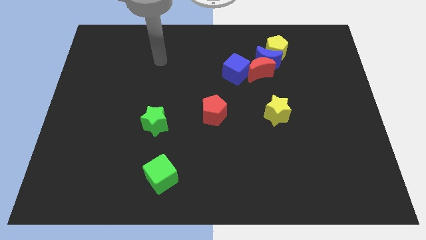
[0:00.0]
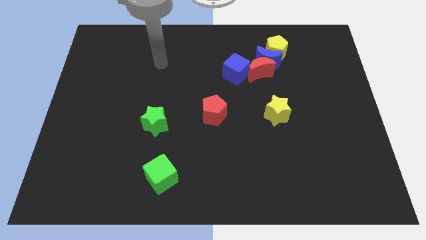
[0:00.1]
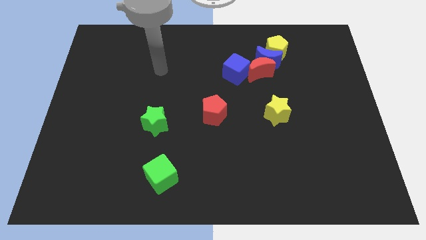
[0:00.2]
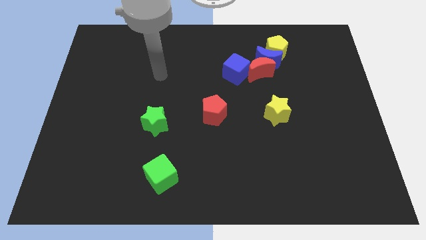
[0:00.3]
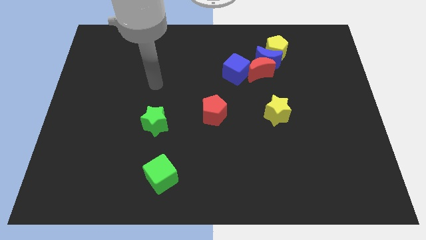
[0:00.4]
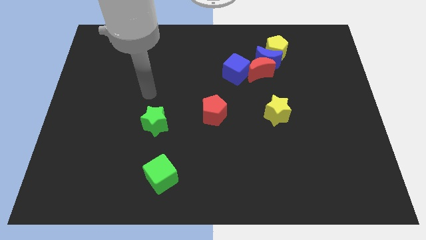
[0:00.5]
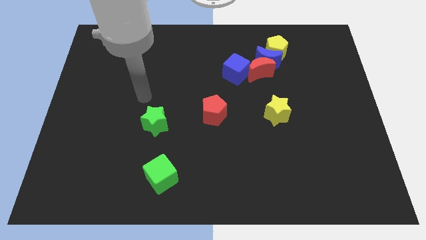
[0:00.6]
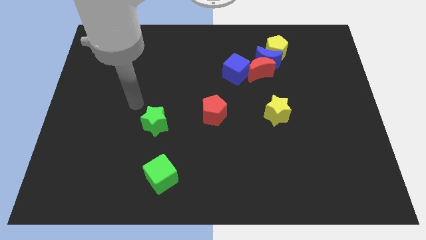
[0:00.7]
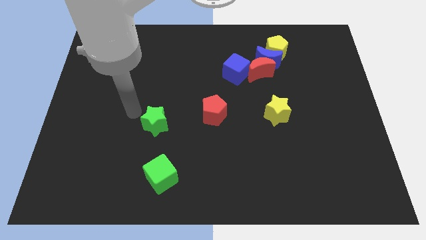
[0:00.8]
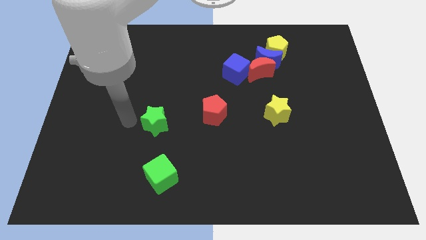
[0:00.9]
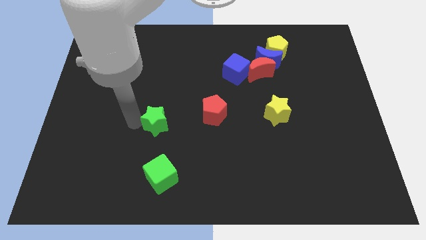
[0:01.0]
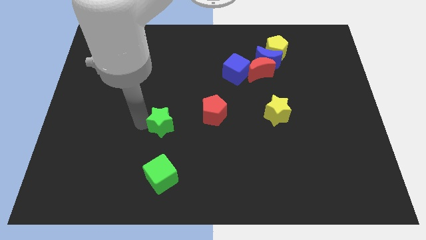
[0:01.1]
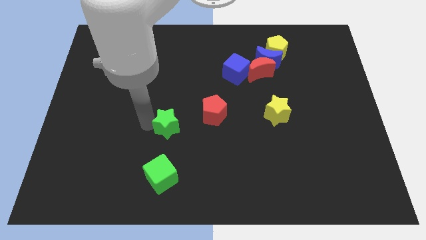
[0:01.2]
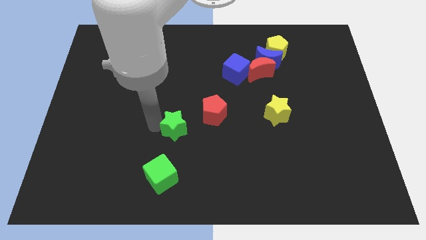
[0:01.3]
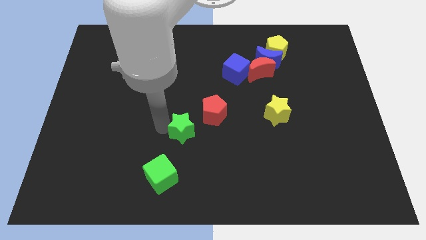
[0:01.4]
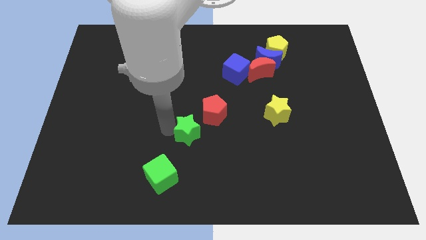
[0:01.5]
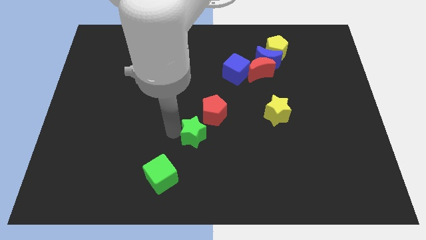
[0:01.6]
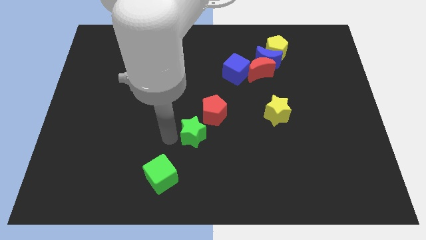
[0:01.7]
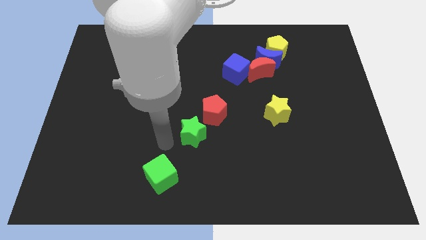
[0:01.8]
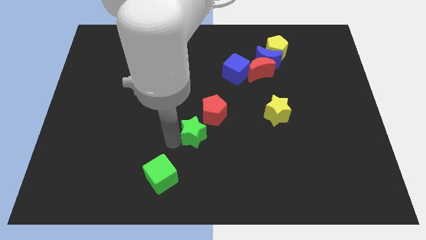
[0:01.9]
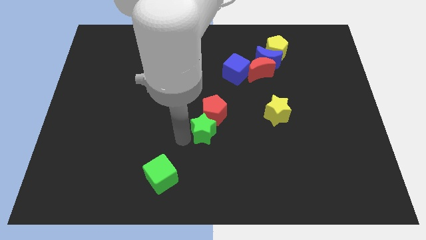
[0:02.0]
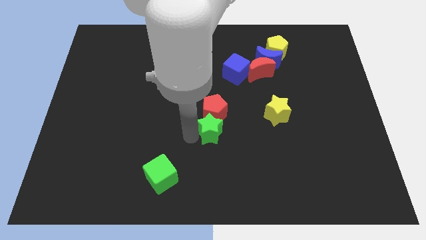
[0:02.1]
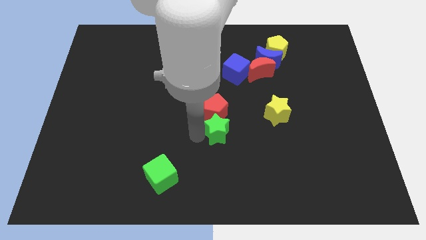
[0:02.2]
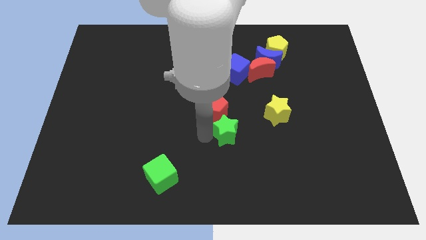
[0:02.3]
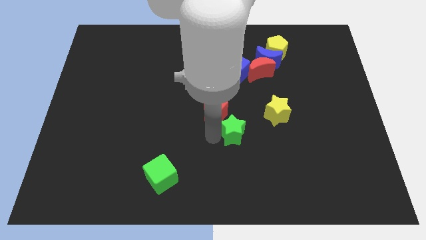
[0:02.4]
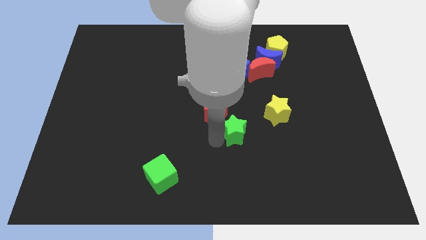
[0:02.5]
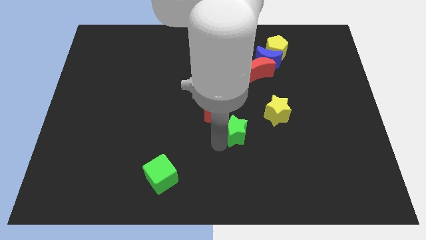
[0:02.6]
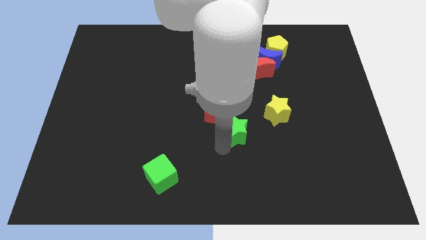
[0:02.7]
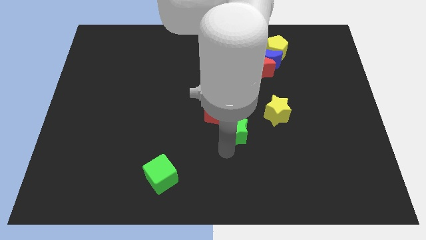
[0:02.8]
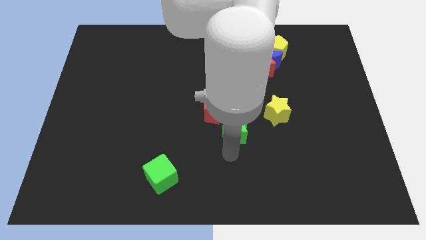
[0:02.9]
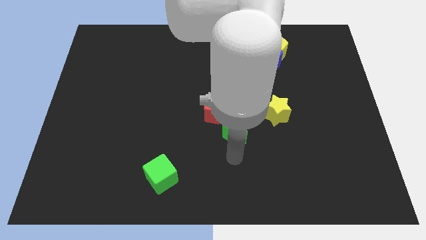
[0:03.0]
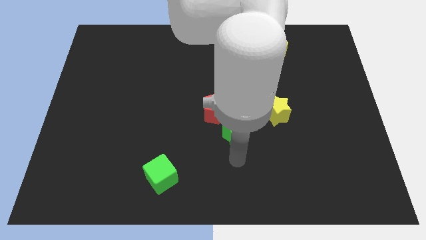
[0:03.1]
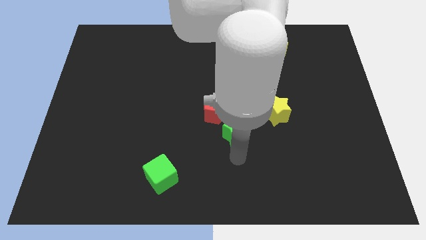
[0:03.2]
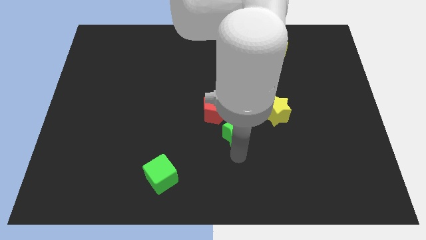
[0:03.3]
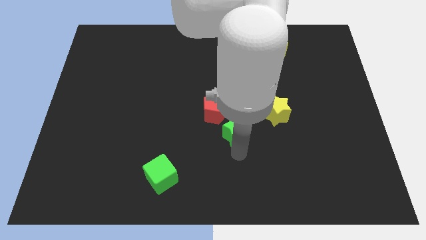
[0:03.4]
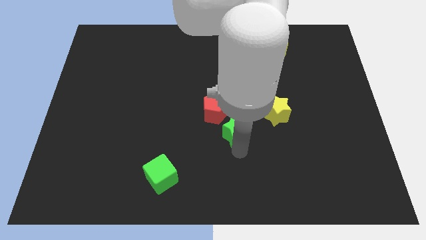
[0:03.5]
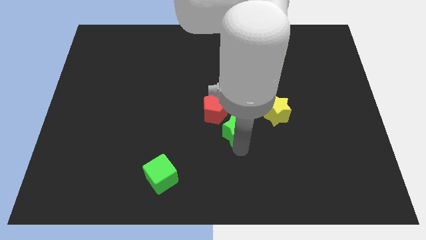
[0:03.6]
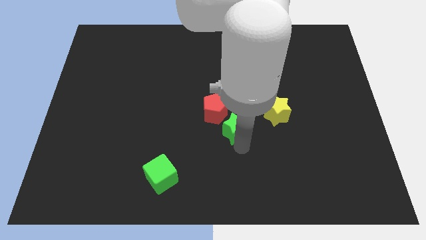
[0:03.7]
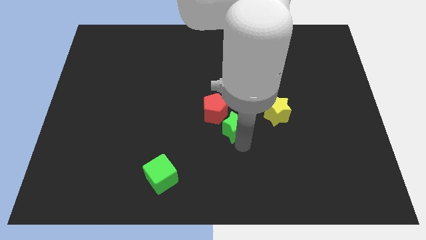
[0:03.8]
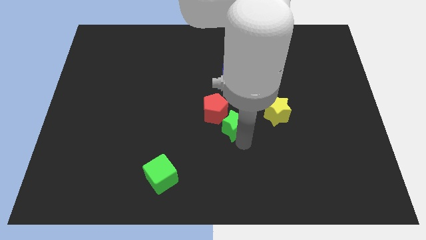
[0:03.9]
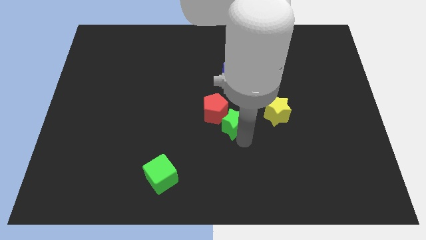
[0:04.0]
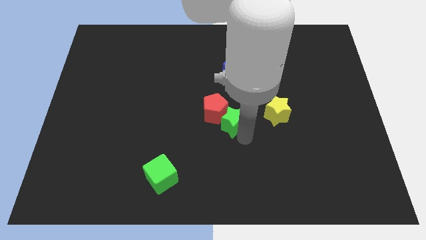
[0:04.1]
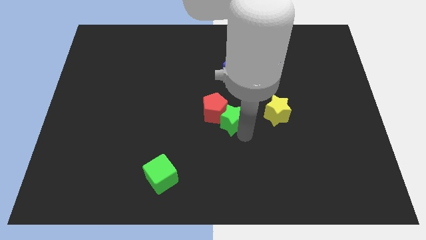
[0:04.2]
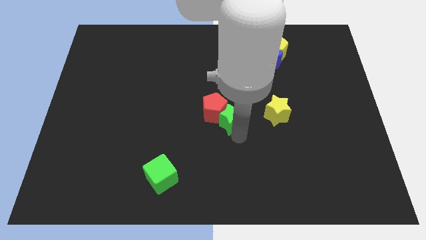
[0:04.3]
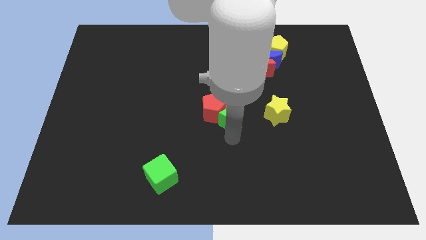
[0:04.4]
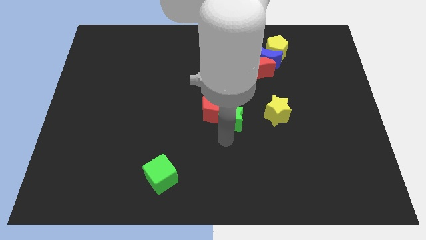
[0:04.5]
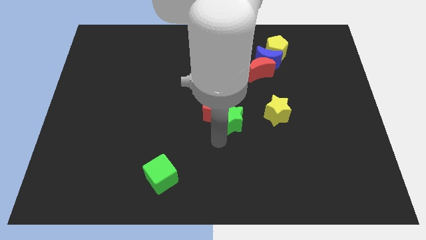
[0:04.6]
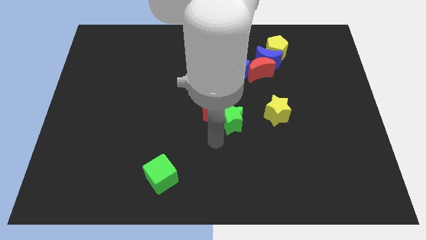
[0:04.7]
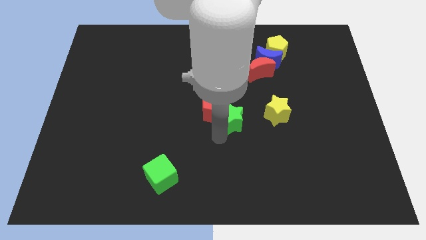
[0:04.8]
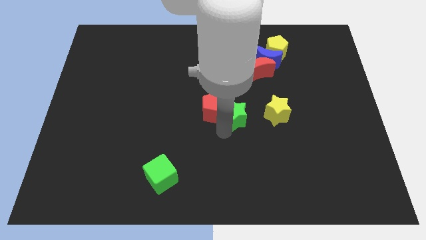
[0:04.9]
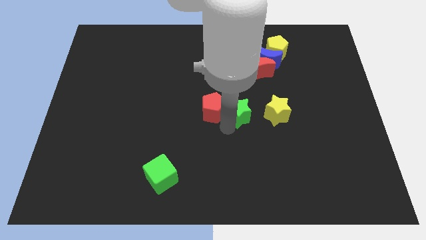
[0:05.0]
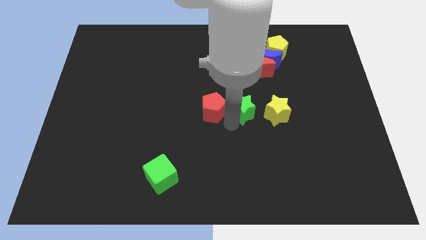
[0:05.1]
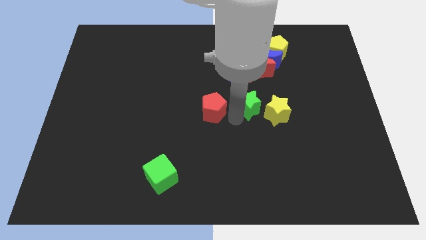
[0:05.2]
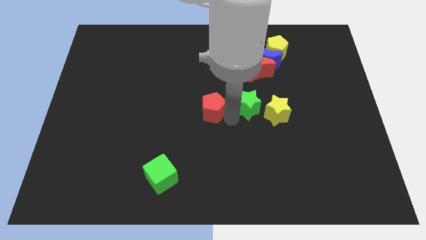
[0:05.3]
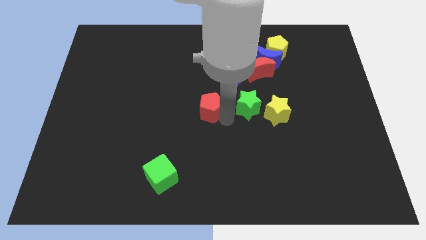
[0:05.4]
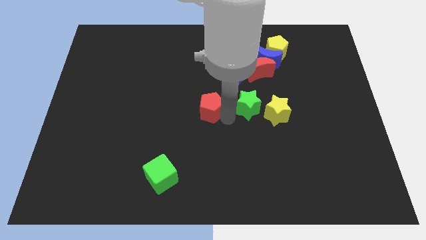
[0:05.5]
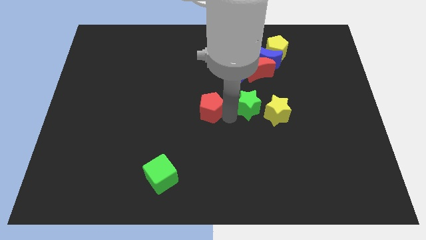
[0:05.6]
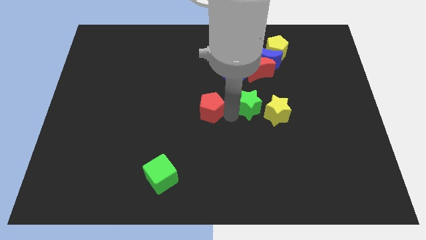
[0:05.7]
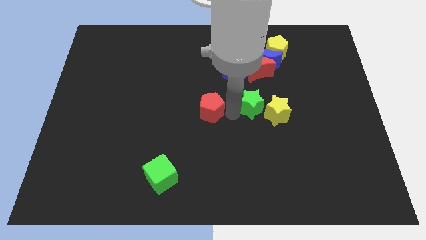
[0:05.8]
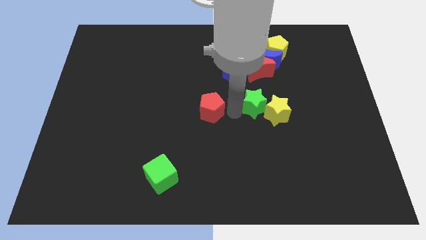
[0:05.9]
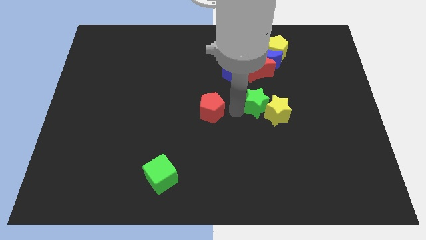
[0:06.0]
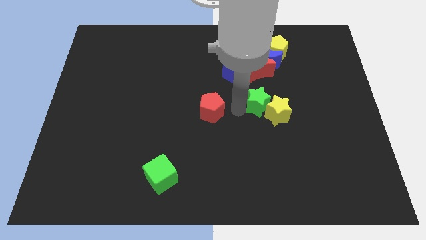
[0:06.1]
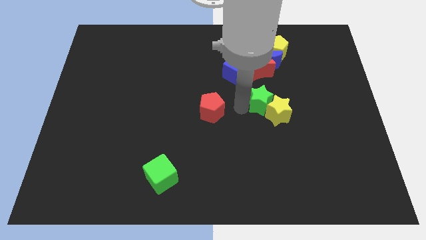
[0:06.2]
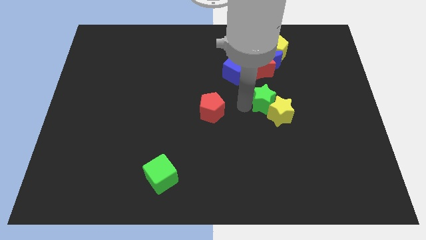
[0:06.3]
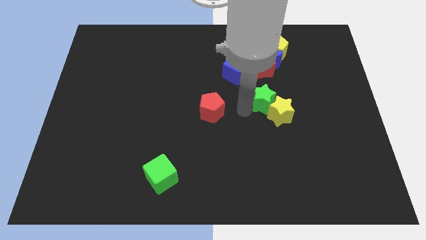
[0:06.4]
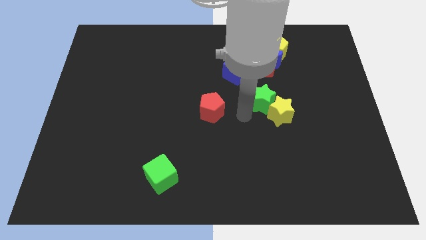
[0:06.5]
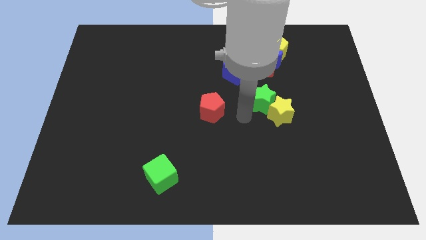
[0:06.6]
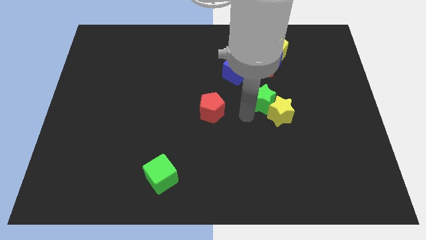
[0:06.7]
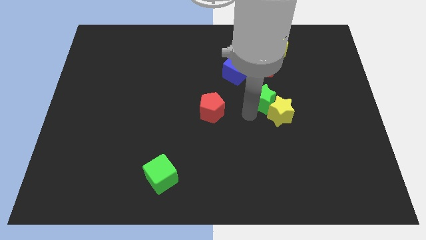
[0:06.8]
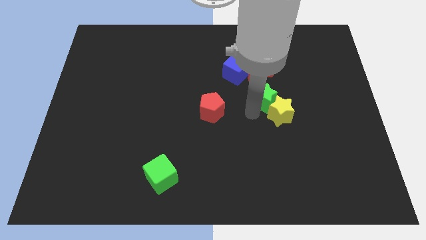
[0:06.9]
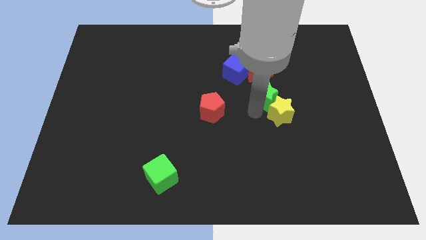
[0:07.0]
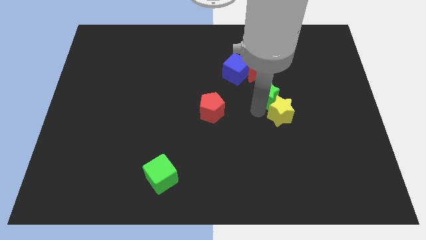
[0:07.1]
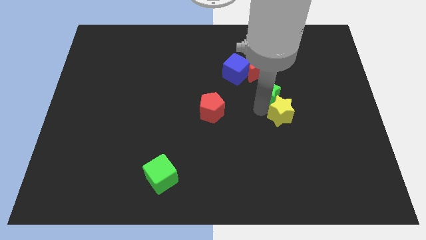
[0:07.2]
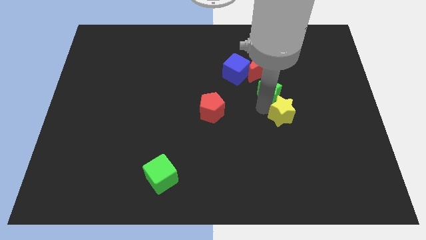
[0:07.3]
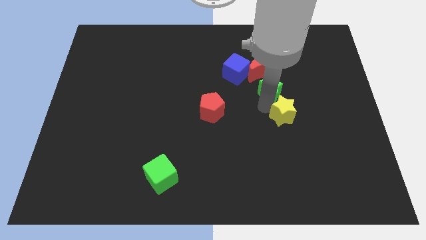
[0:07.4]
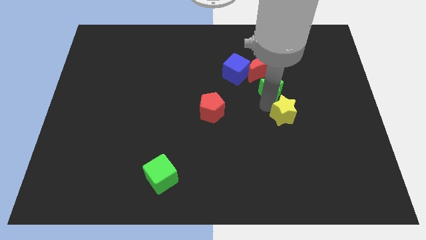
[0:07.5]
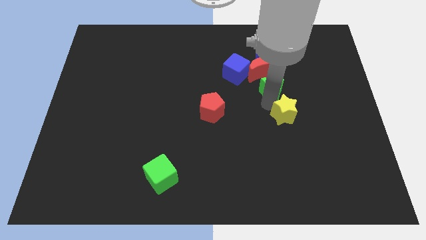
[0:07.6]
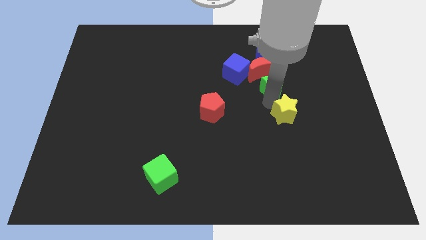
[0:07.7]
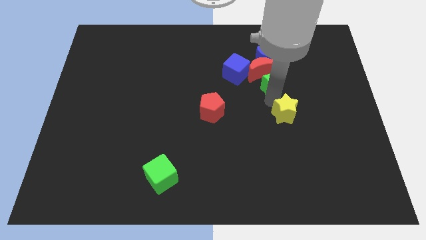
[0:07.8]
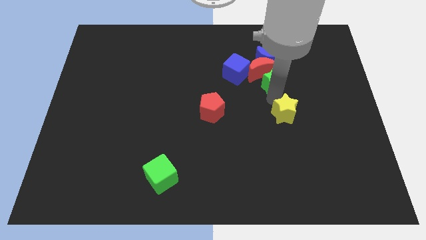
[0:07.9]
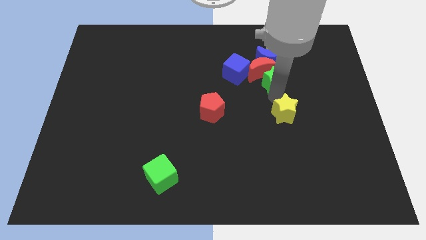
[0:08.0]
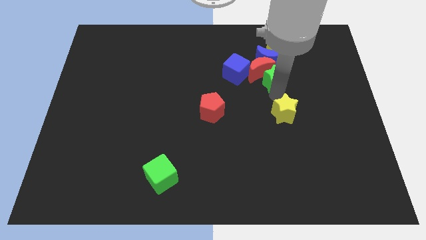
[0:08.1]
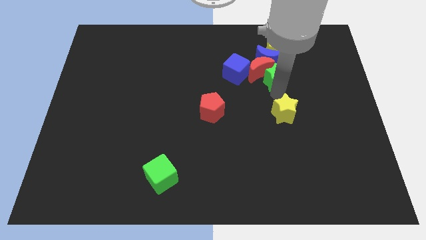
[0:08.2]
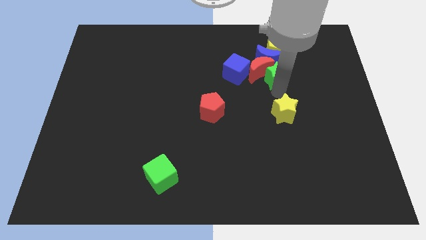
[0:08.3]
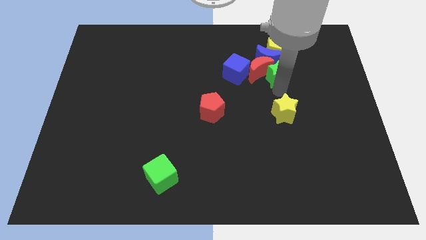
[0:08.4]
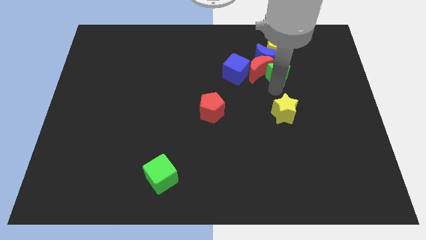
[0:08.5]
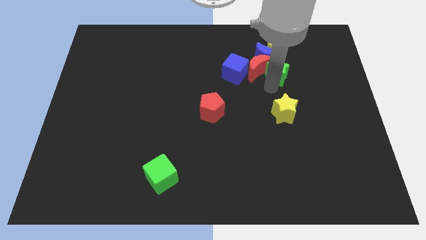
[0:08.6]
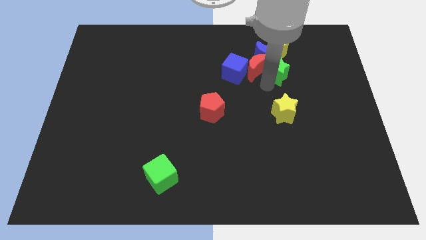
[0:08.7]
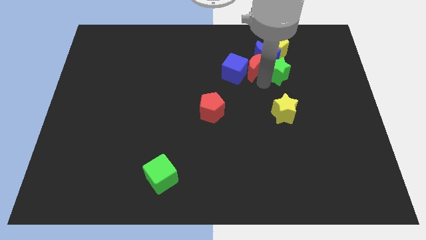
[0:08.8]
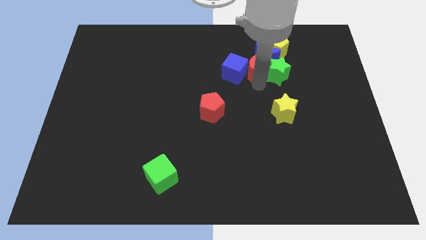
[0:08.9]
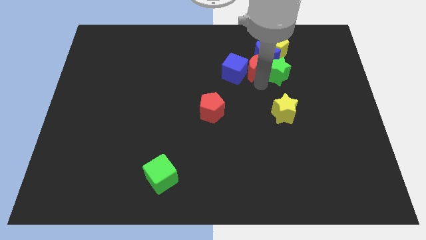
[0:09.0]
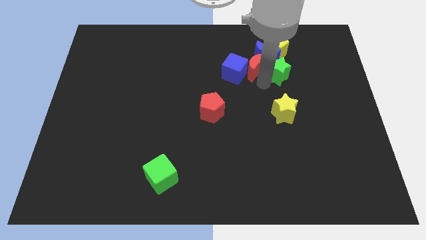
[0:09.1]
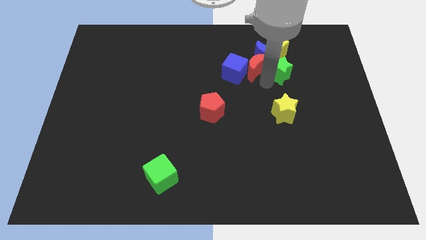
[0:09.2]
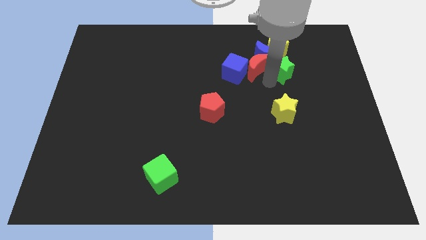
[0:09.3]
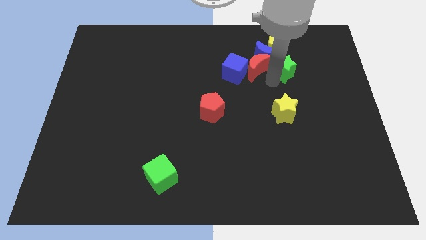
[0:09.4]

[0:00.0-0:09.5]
move the green star to the bottom right side of the yellow pentagon
